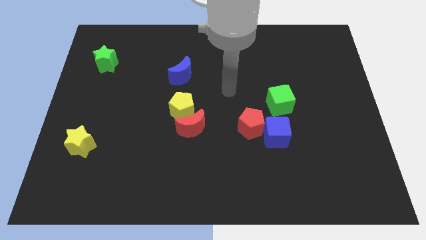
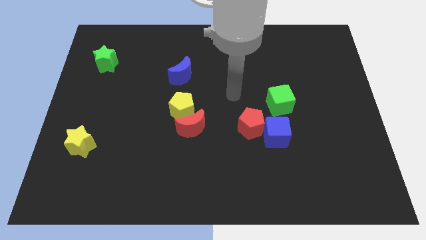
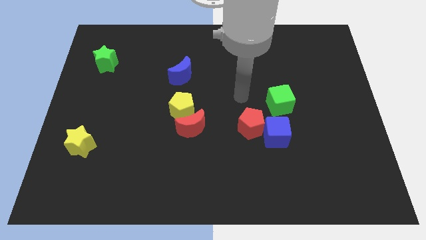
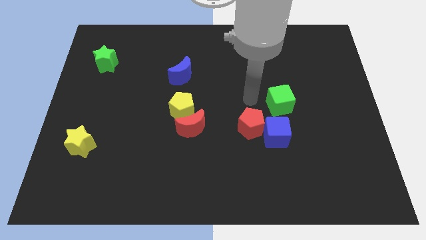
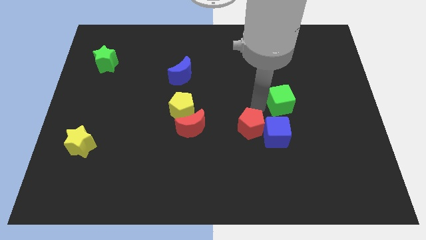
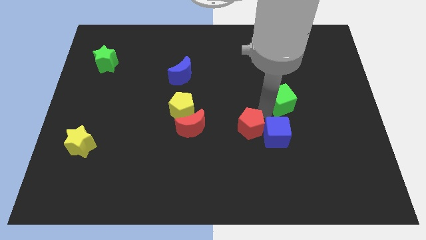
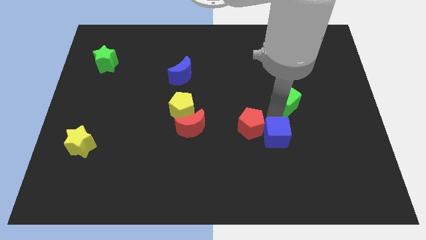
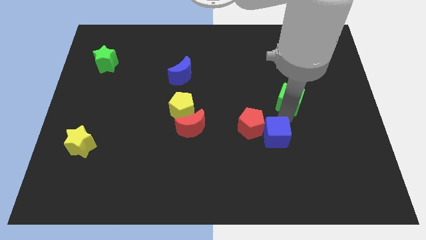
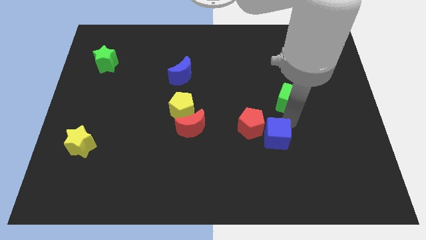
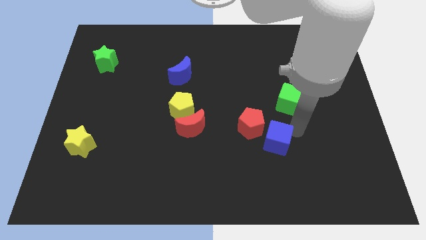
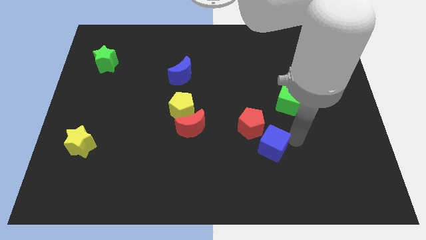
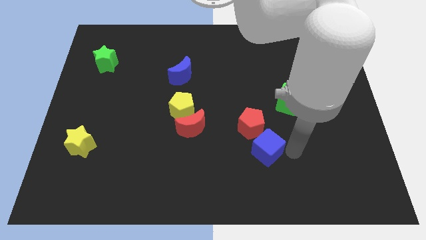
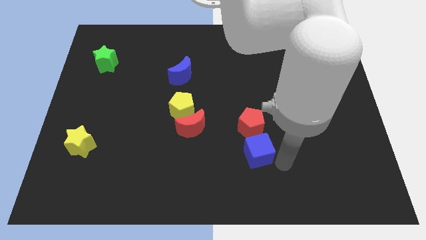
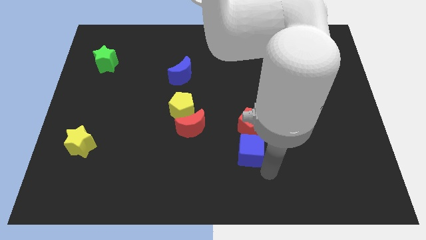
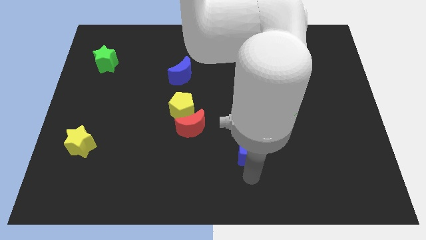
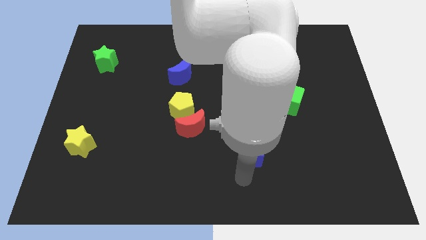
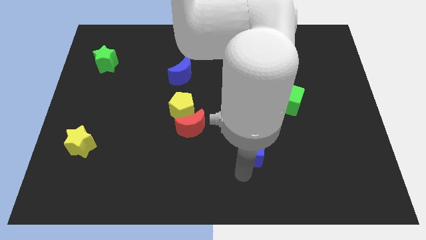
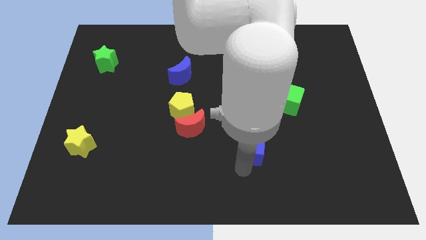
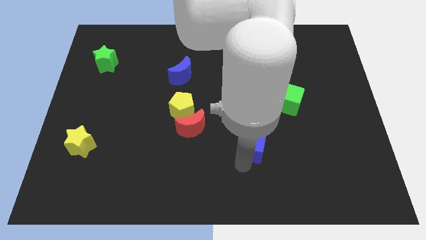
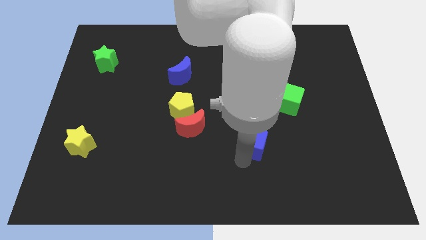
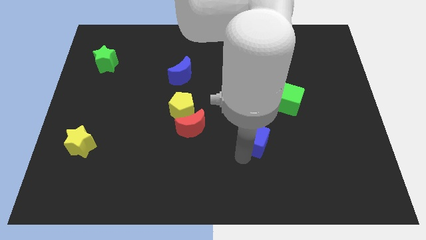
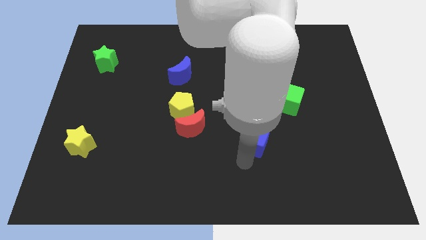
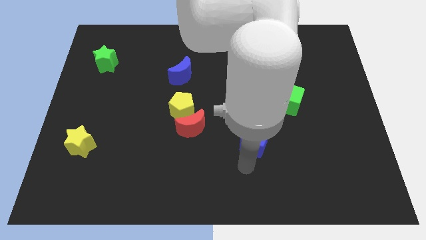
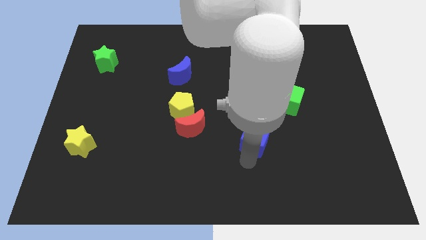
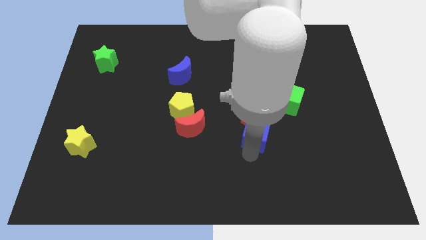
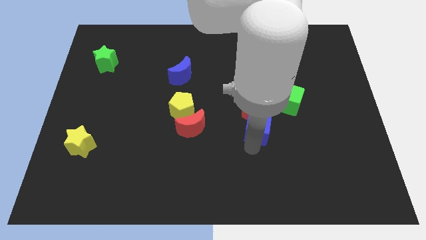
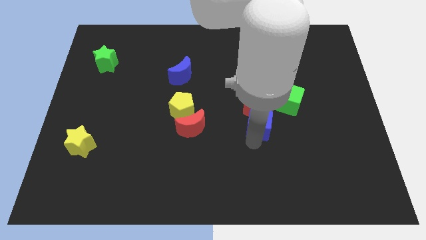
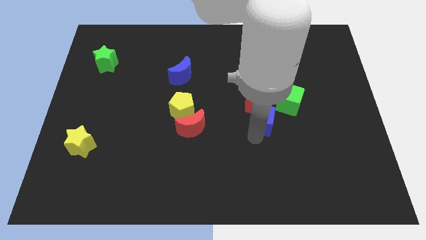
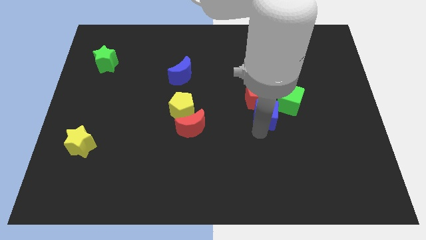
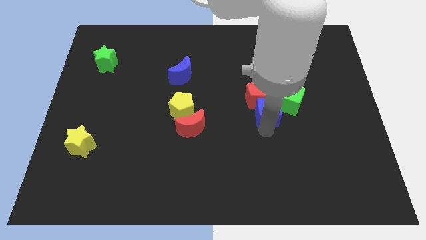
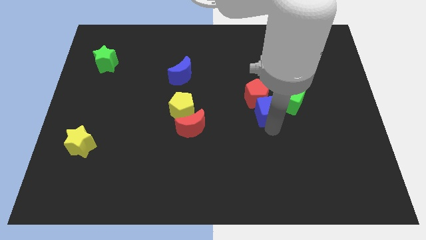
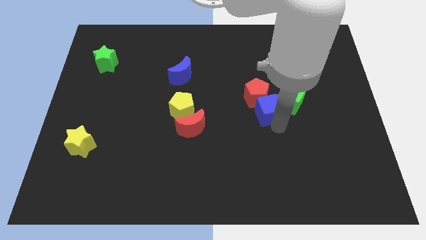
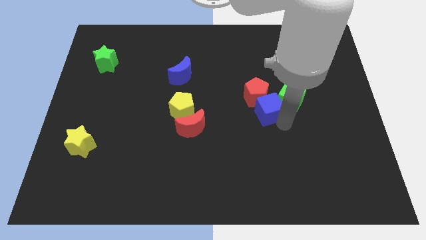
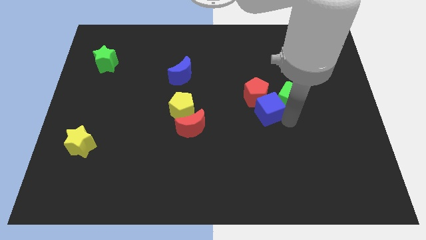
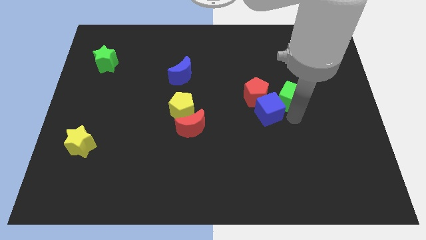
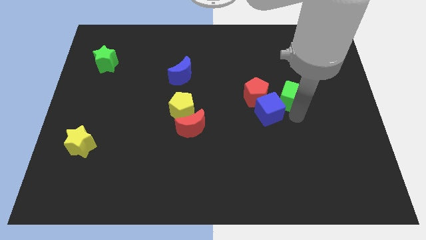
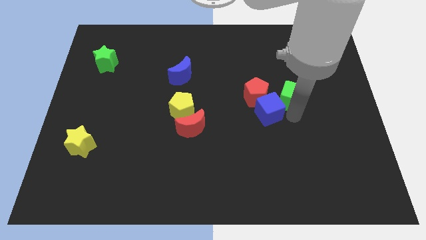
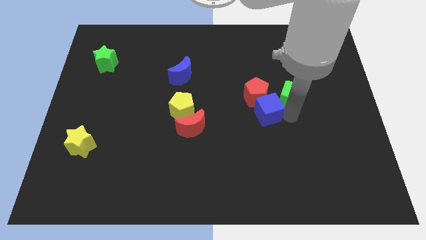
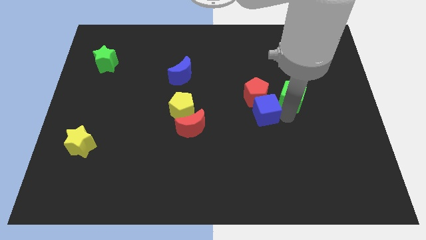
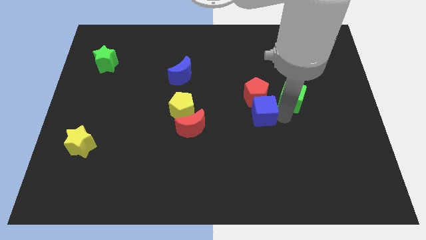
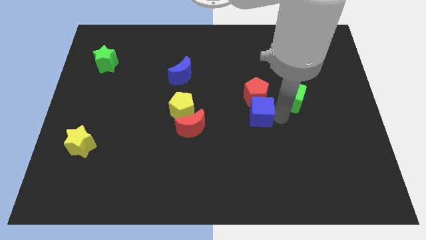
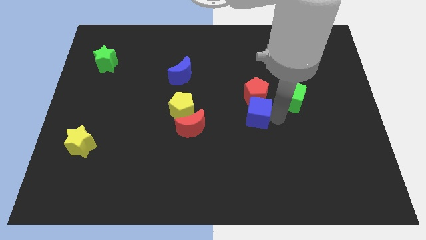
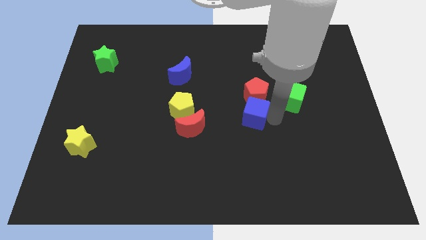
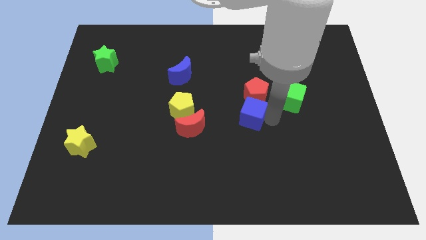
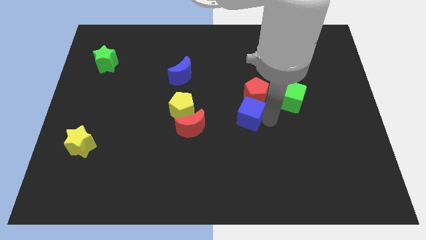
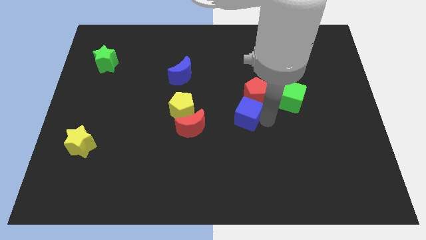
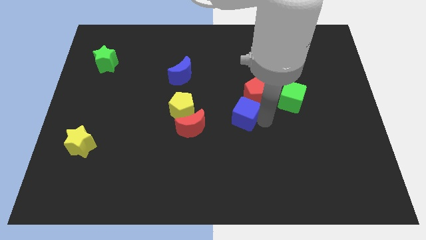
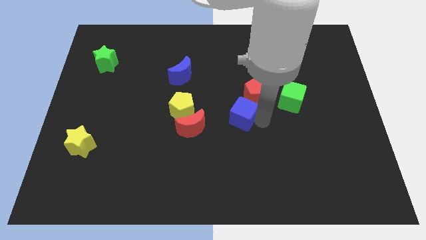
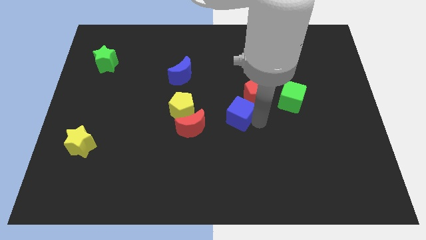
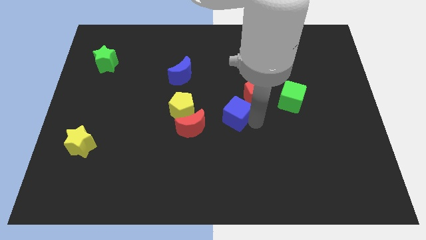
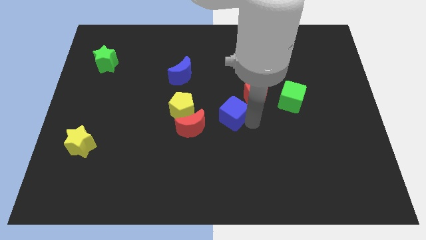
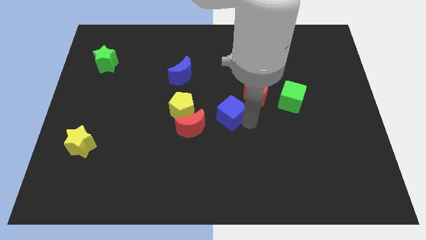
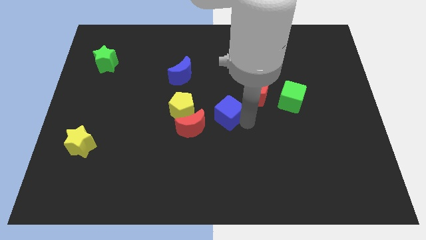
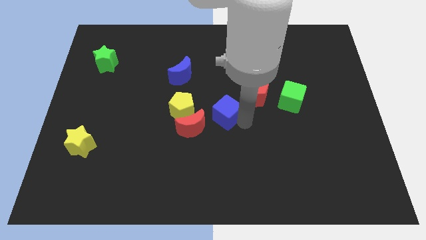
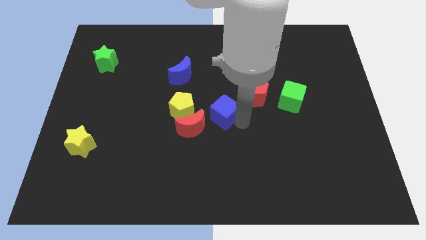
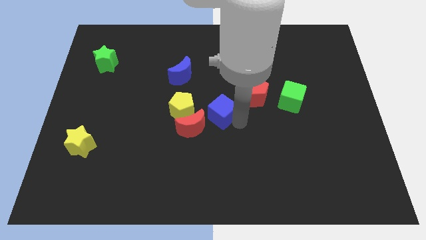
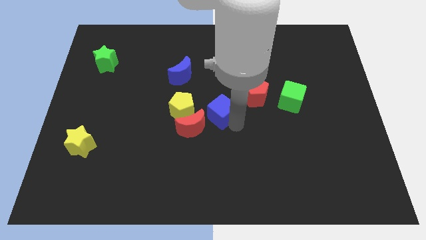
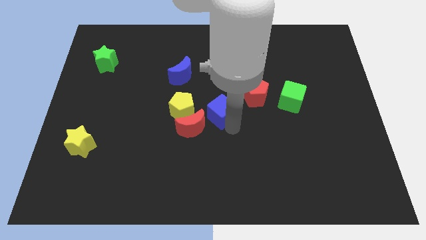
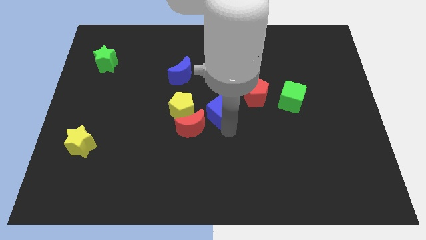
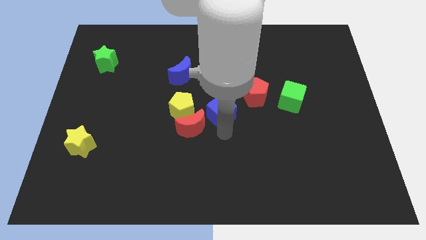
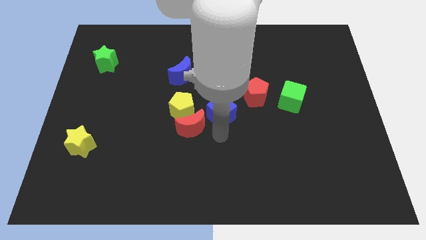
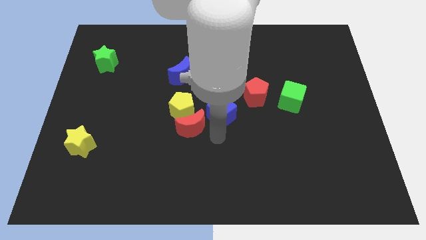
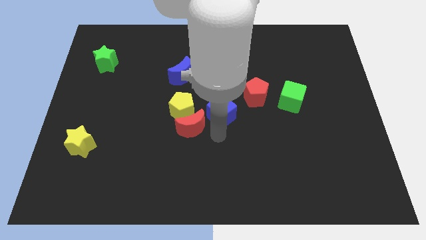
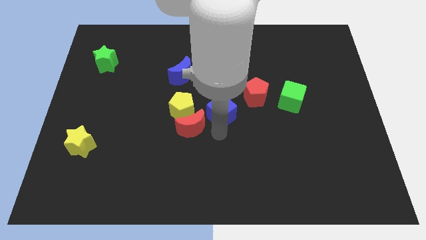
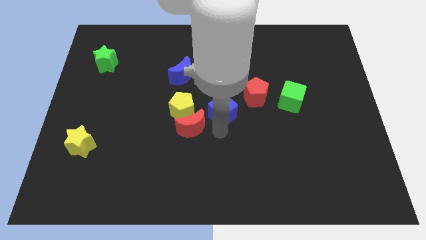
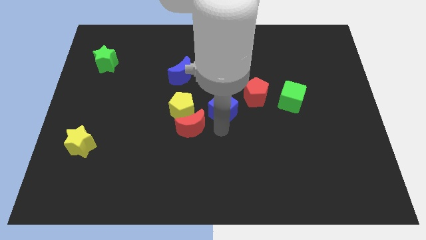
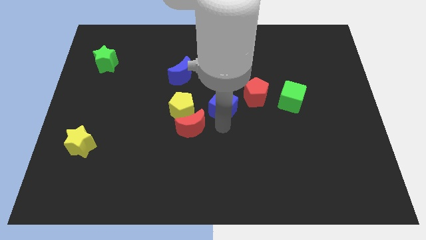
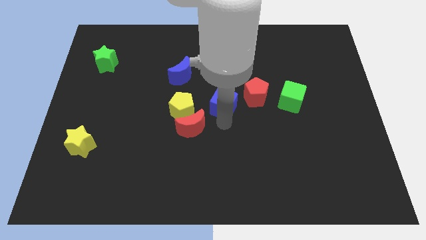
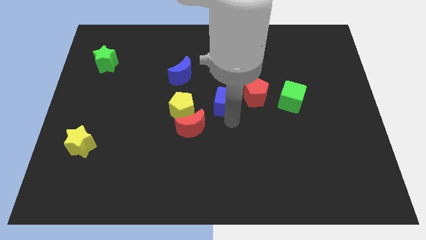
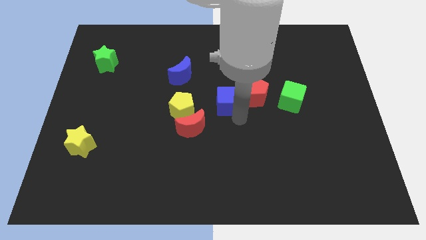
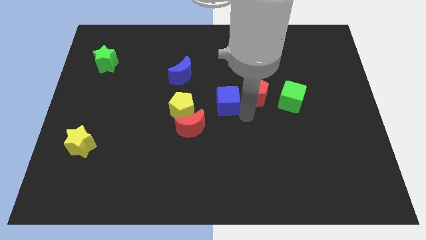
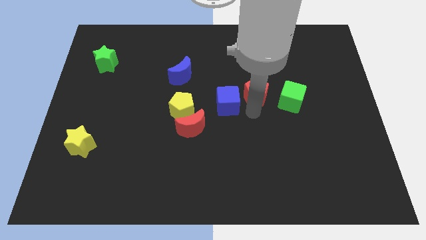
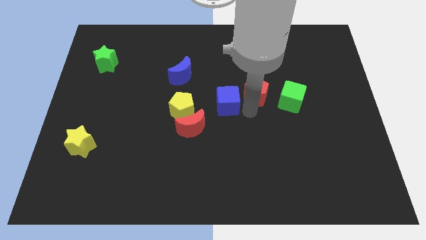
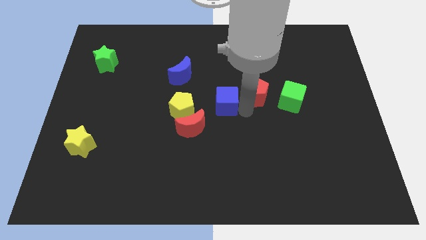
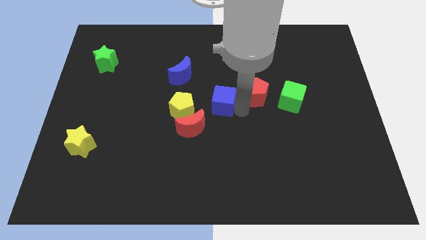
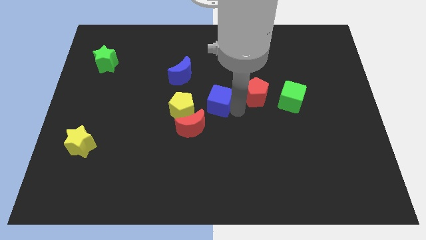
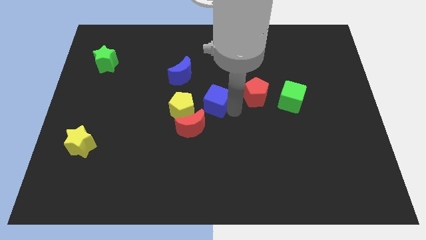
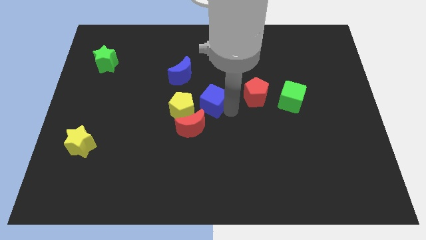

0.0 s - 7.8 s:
move the blue cube to the top side of the red moon
